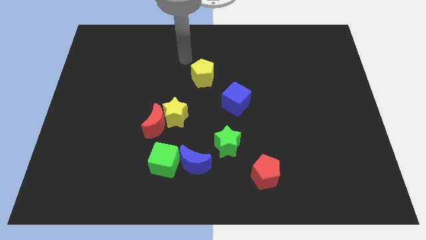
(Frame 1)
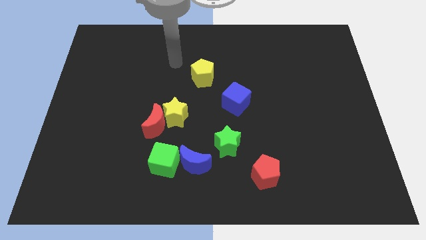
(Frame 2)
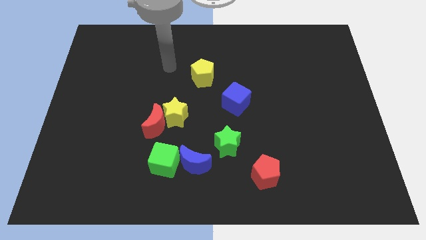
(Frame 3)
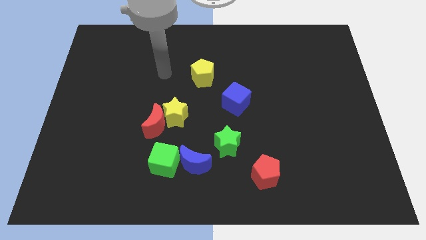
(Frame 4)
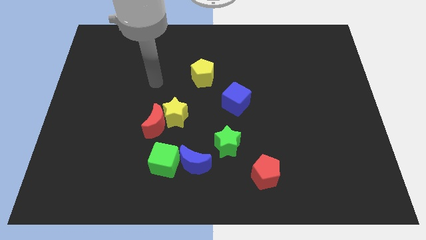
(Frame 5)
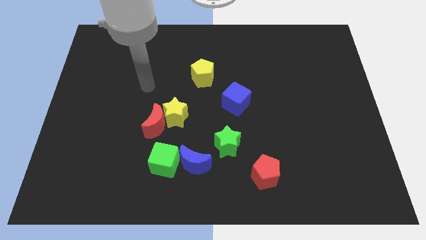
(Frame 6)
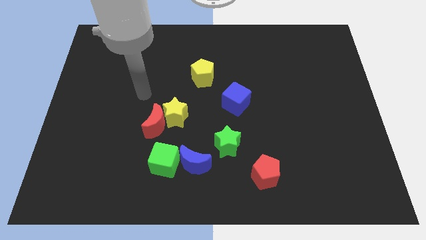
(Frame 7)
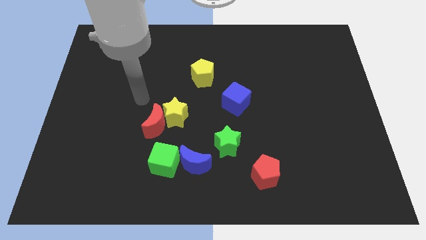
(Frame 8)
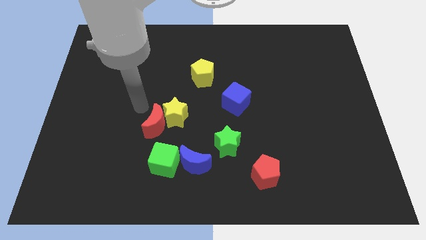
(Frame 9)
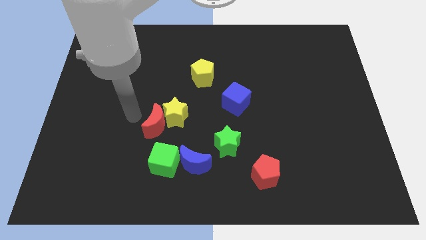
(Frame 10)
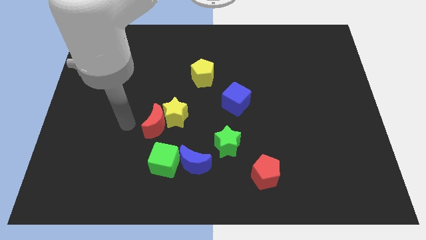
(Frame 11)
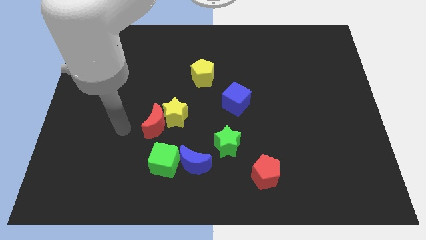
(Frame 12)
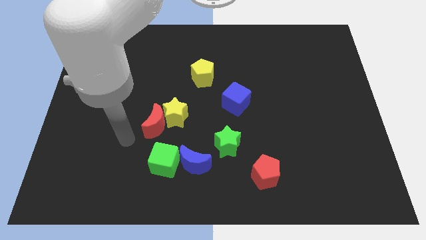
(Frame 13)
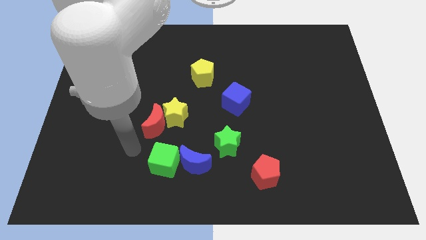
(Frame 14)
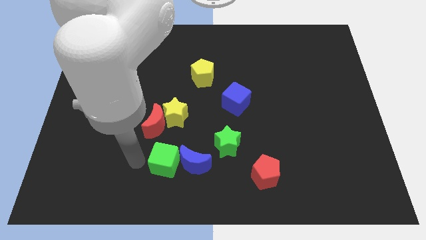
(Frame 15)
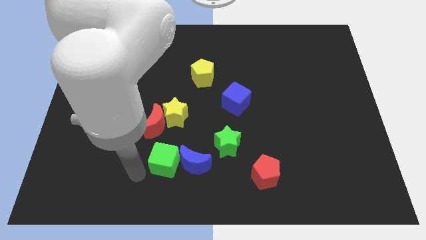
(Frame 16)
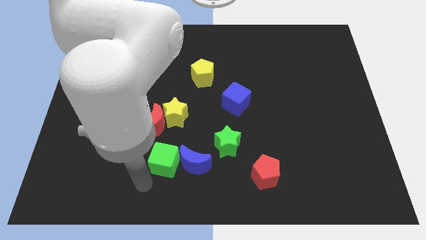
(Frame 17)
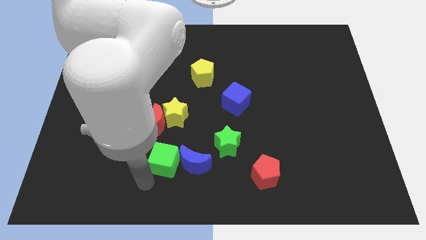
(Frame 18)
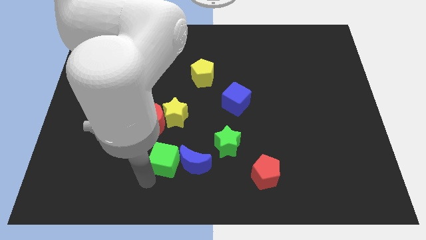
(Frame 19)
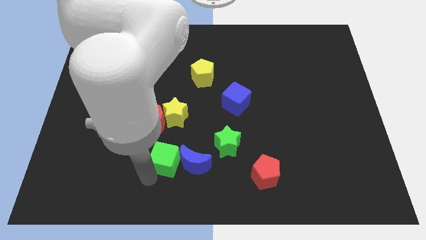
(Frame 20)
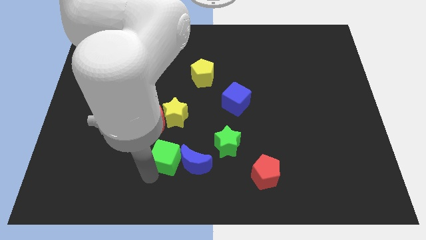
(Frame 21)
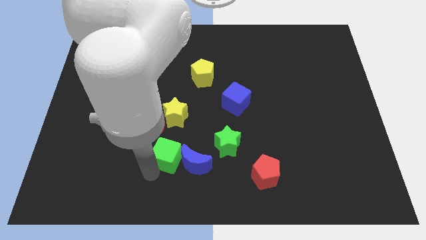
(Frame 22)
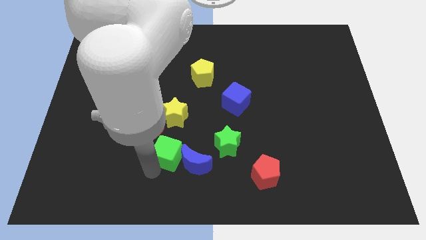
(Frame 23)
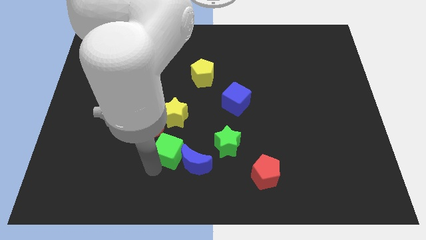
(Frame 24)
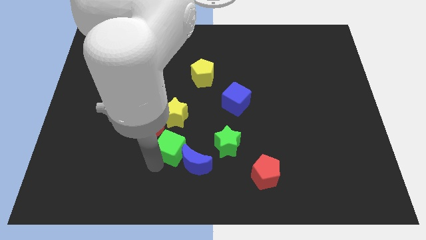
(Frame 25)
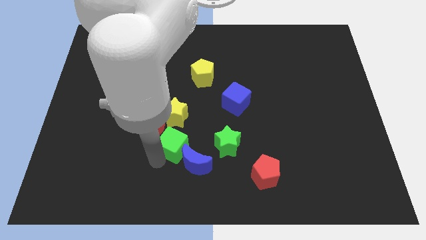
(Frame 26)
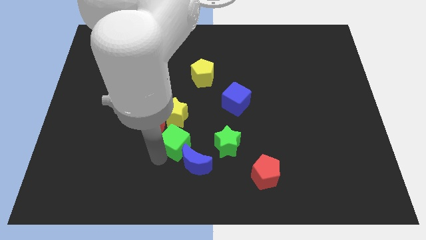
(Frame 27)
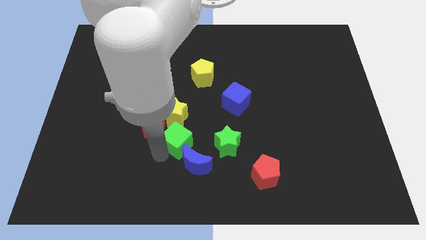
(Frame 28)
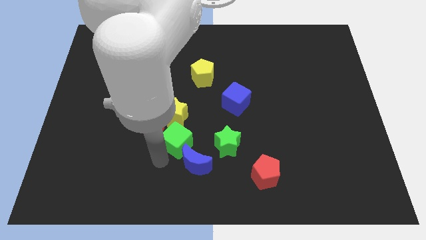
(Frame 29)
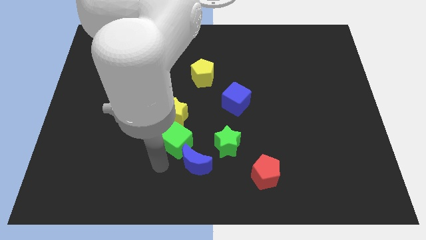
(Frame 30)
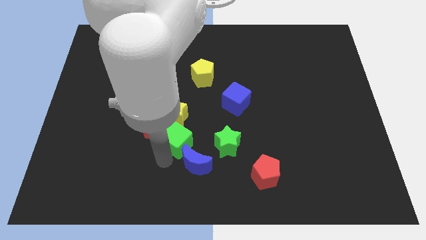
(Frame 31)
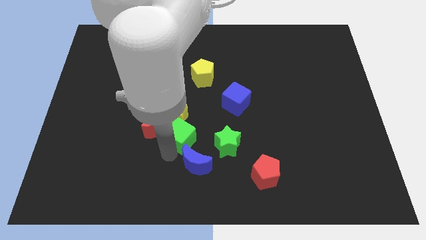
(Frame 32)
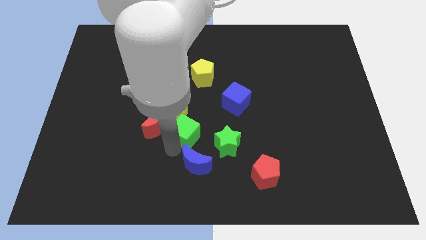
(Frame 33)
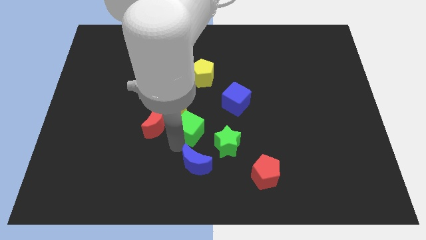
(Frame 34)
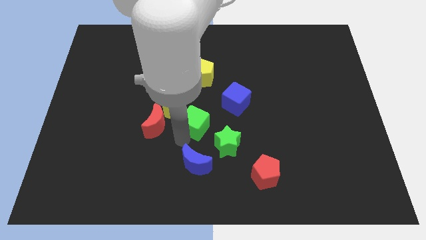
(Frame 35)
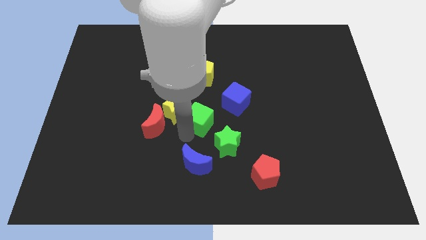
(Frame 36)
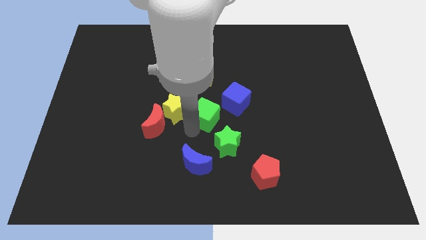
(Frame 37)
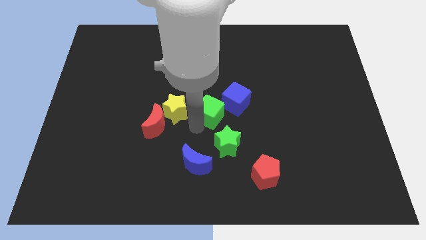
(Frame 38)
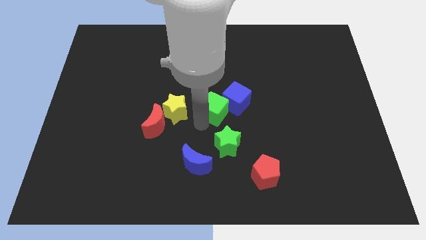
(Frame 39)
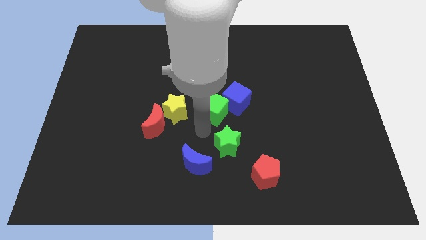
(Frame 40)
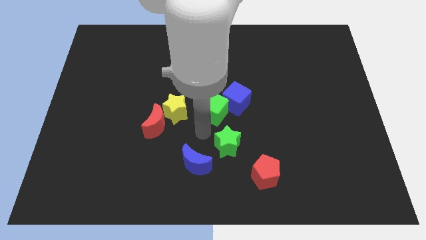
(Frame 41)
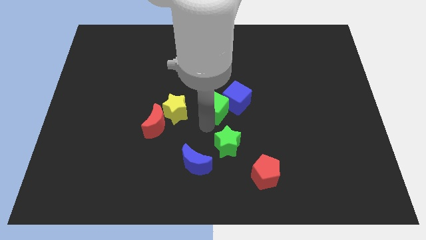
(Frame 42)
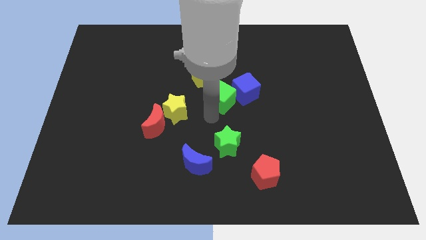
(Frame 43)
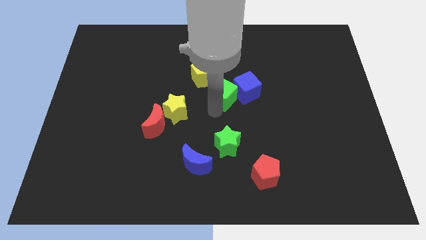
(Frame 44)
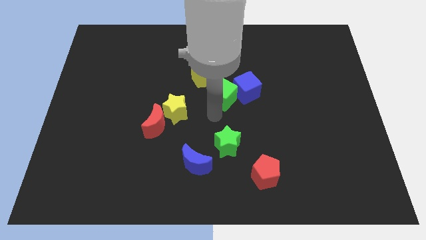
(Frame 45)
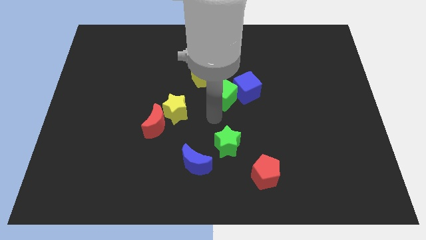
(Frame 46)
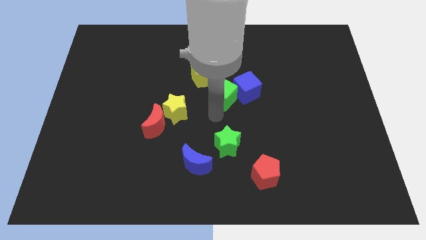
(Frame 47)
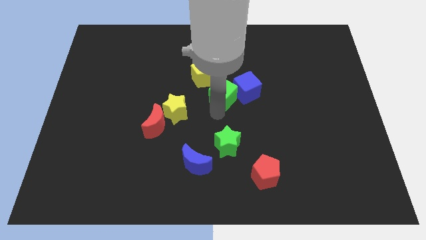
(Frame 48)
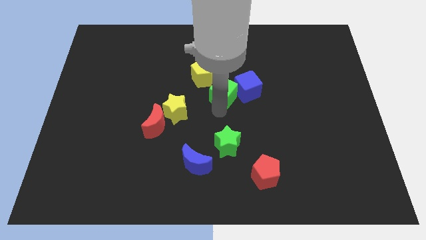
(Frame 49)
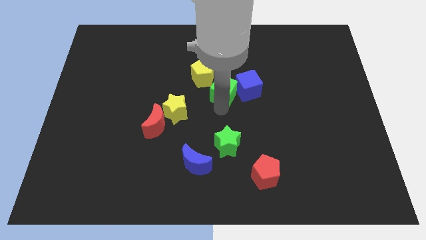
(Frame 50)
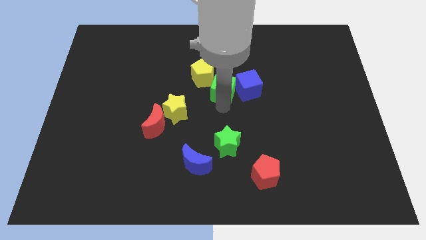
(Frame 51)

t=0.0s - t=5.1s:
move the green cube right of the yellow pentagon

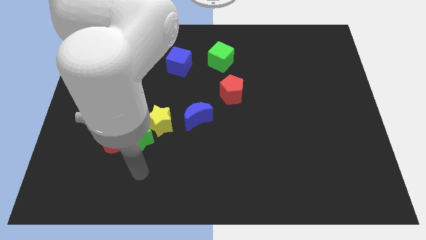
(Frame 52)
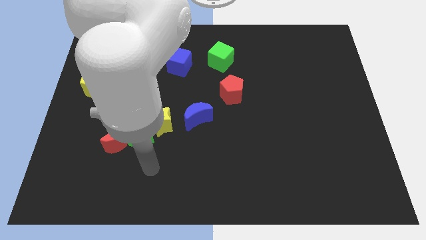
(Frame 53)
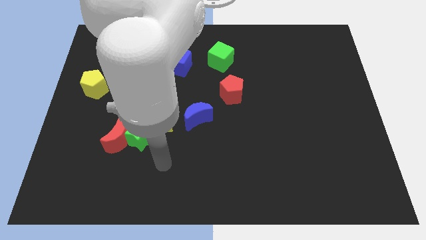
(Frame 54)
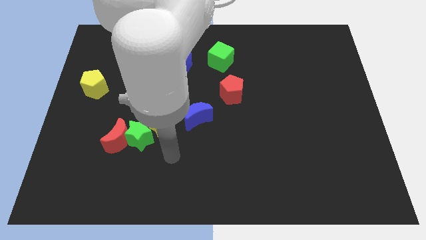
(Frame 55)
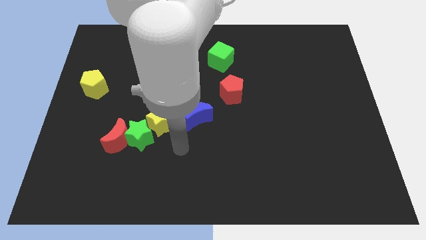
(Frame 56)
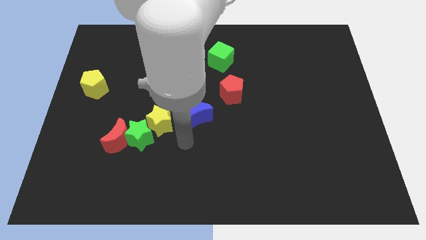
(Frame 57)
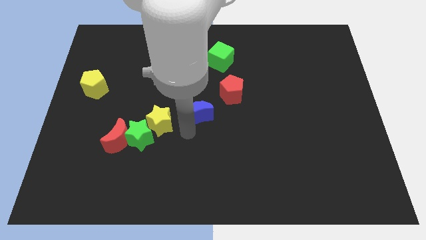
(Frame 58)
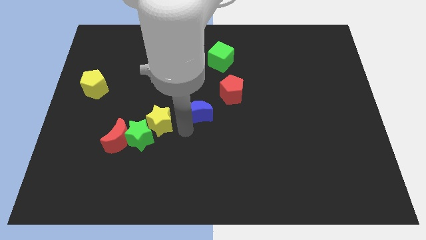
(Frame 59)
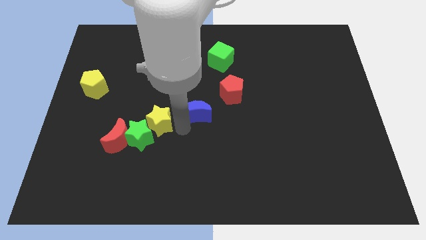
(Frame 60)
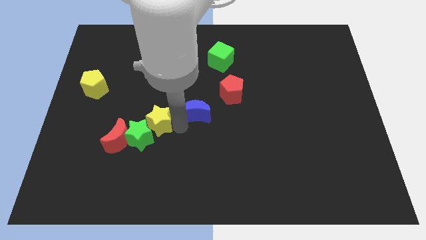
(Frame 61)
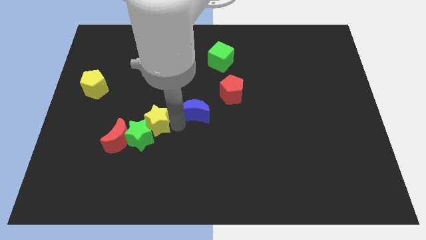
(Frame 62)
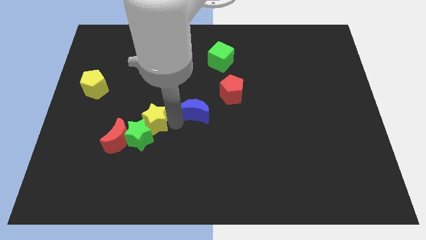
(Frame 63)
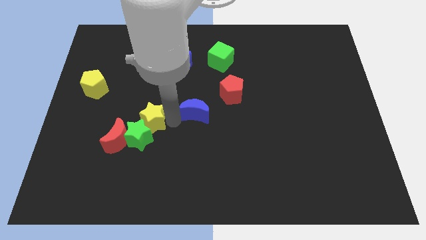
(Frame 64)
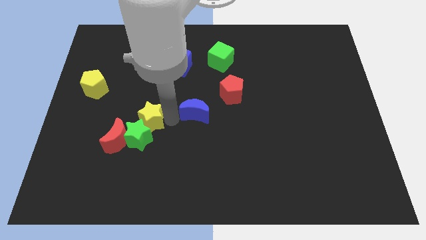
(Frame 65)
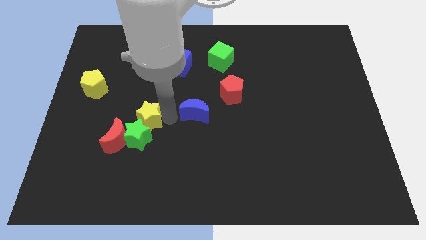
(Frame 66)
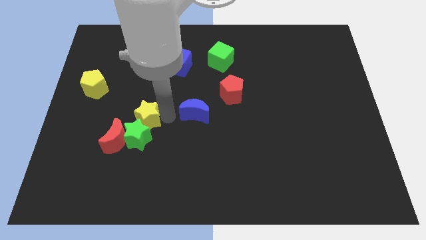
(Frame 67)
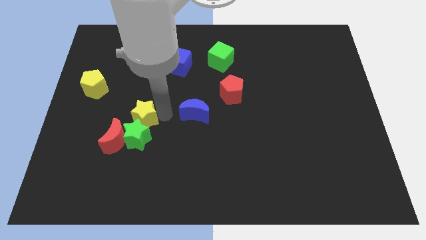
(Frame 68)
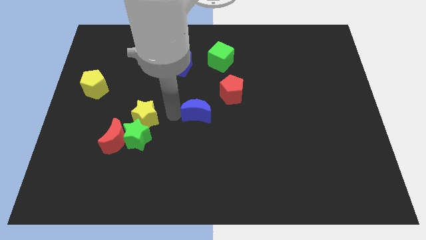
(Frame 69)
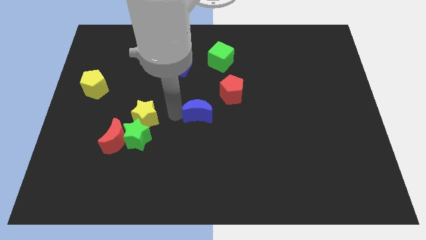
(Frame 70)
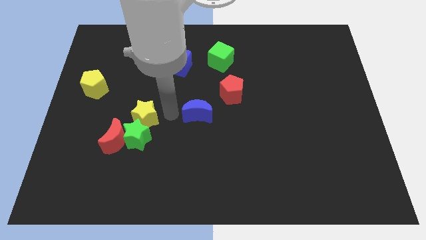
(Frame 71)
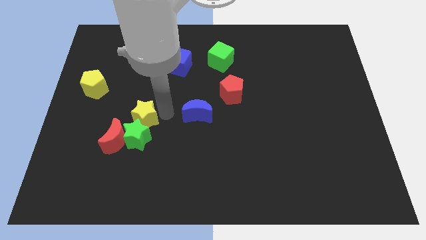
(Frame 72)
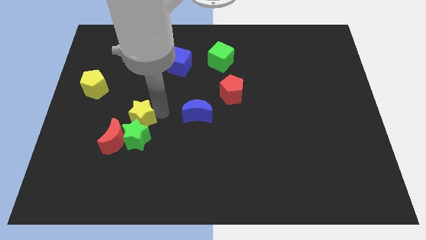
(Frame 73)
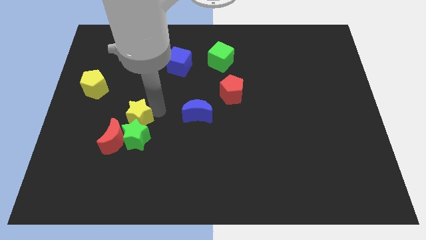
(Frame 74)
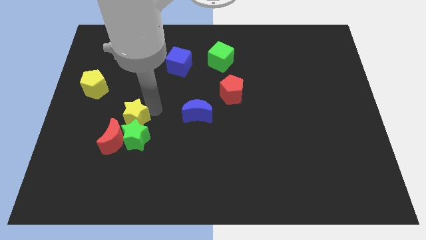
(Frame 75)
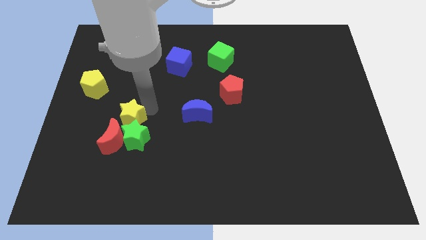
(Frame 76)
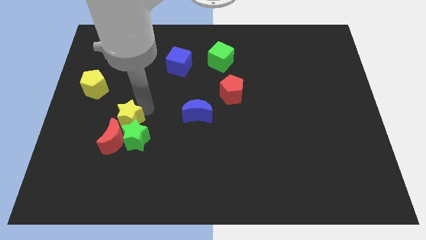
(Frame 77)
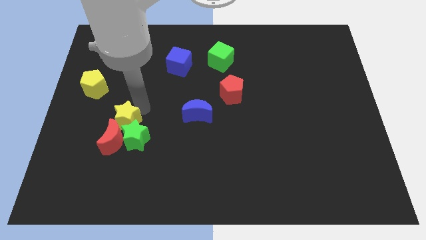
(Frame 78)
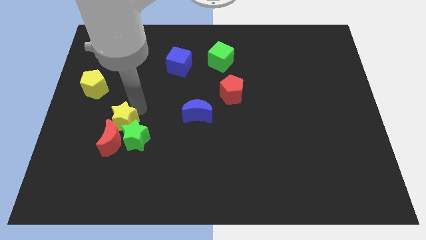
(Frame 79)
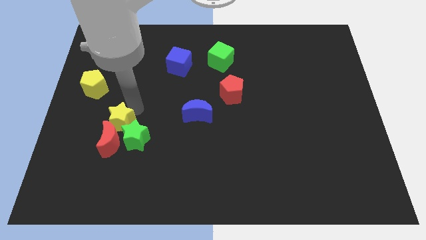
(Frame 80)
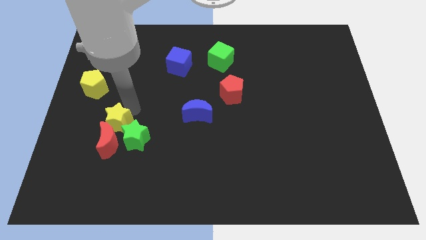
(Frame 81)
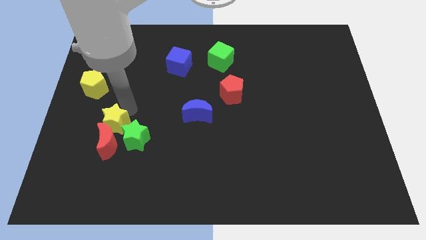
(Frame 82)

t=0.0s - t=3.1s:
push the yellow star to the top left of the red moon
